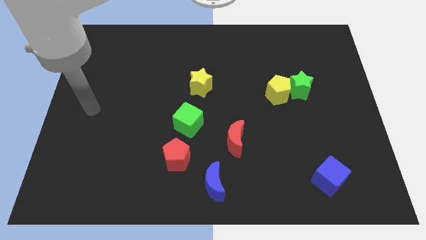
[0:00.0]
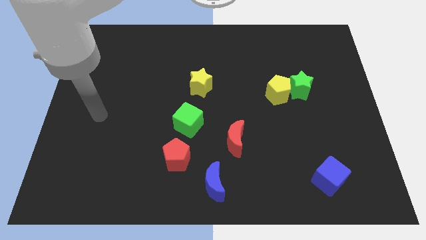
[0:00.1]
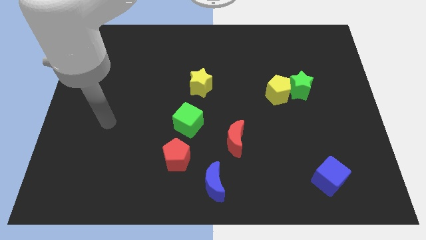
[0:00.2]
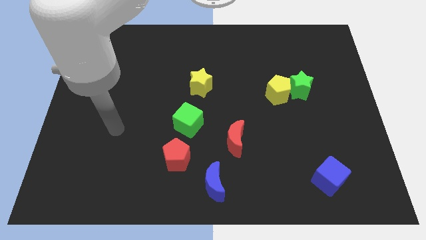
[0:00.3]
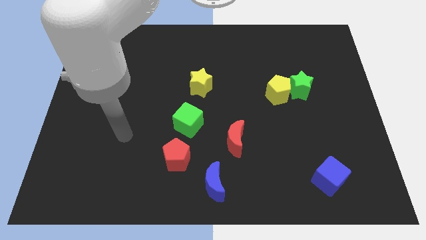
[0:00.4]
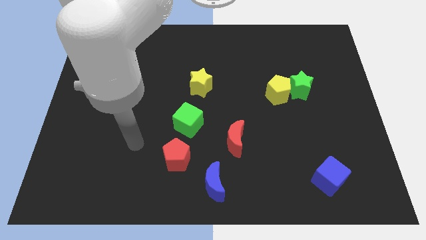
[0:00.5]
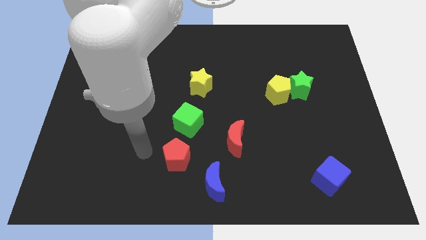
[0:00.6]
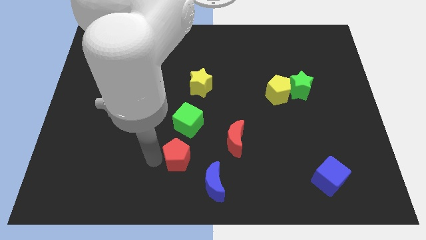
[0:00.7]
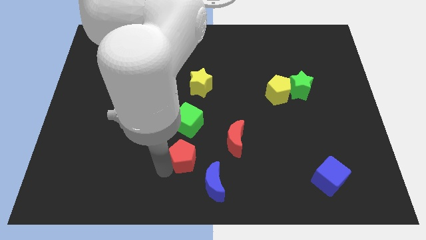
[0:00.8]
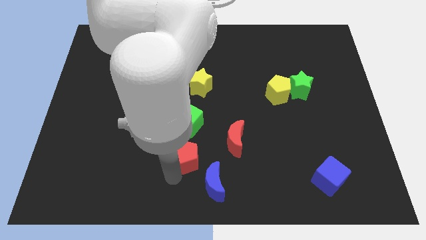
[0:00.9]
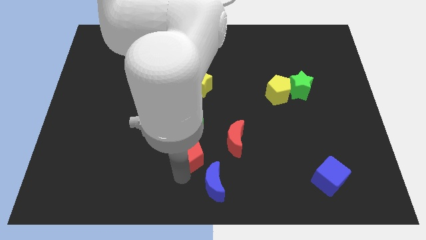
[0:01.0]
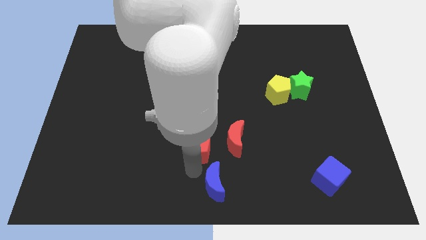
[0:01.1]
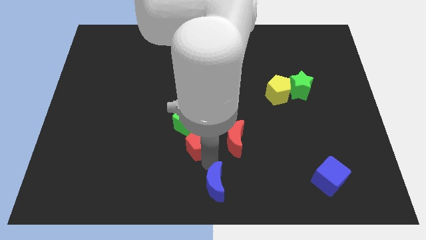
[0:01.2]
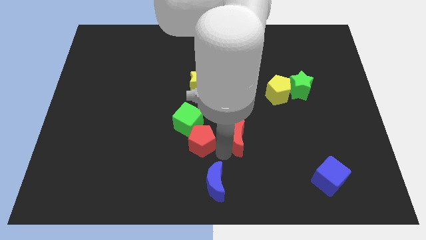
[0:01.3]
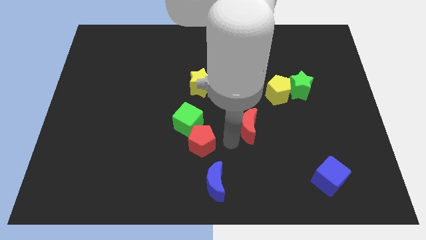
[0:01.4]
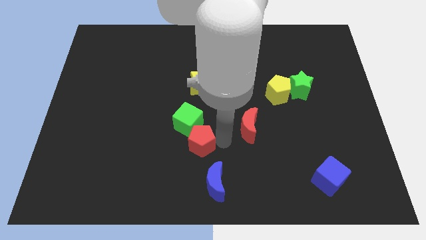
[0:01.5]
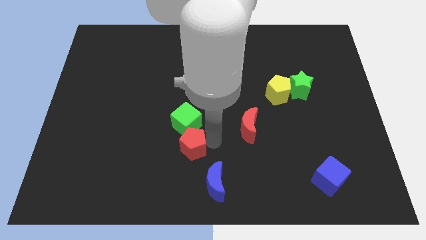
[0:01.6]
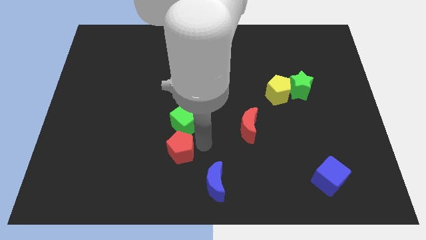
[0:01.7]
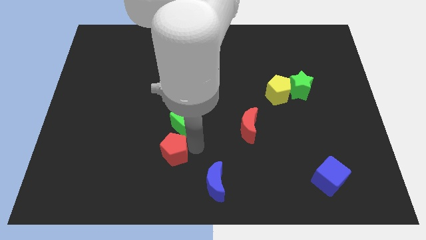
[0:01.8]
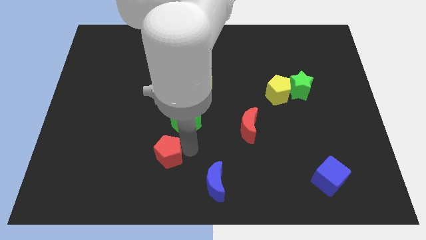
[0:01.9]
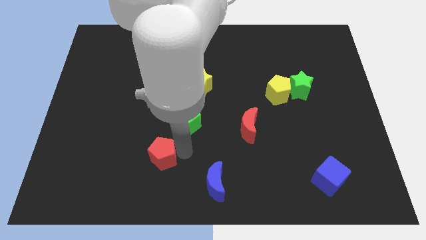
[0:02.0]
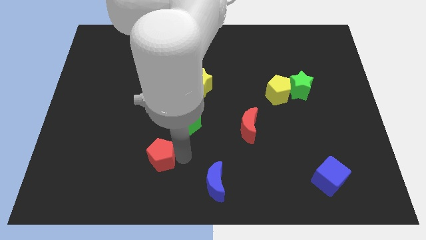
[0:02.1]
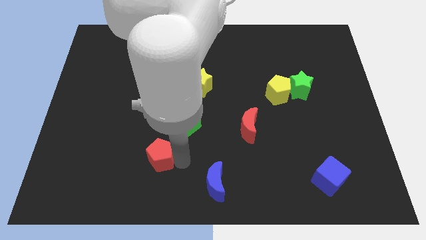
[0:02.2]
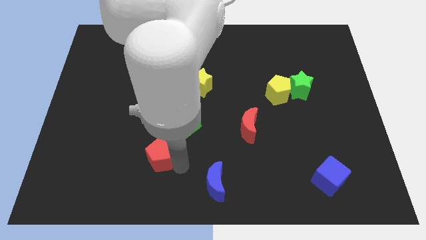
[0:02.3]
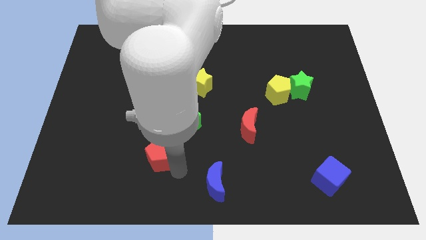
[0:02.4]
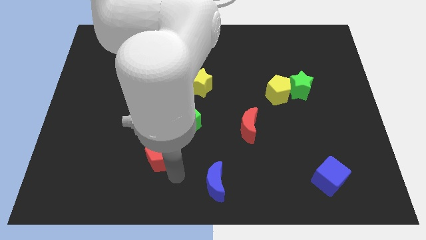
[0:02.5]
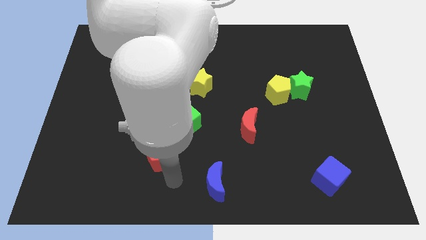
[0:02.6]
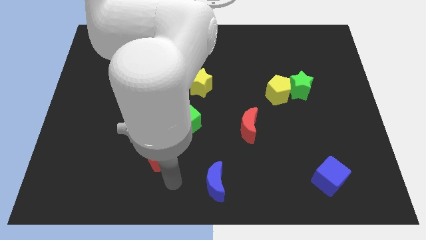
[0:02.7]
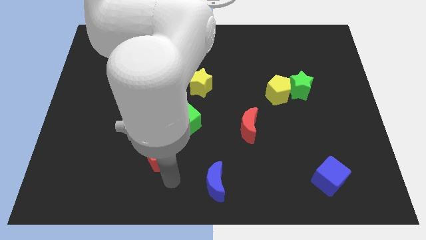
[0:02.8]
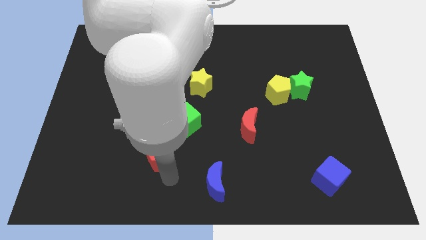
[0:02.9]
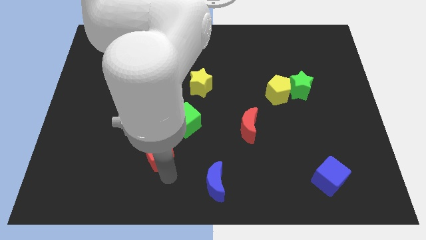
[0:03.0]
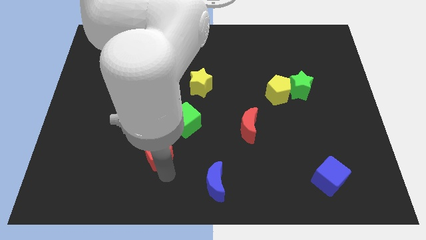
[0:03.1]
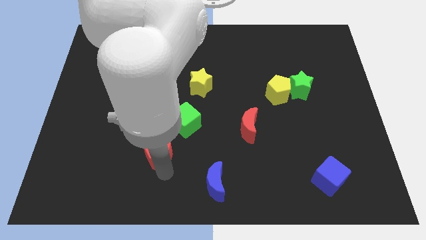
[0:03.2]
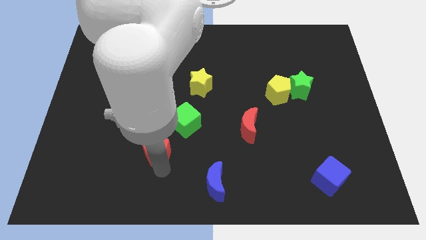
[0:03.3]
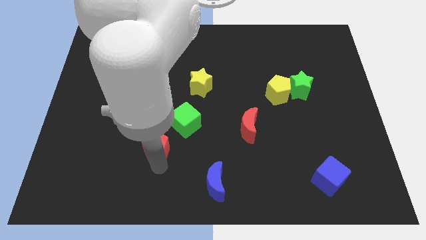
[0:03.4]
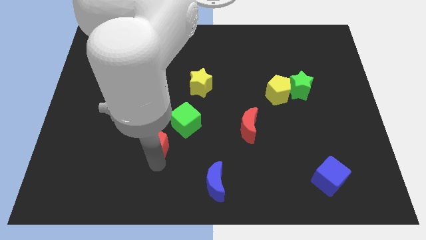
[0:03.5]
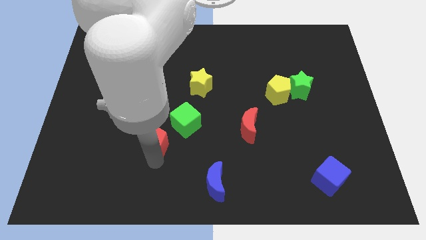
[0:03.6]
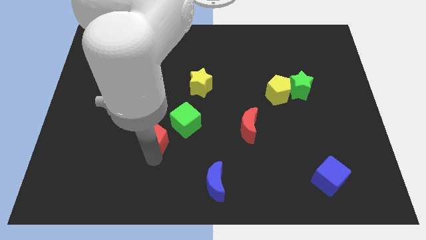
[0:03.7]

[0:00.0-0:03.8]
slide the red pentagon upwards and then left slightly

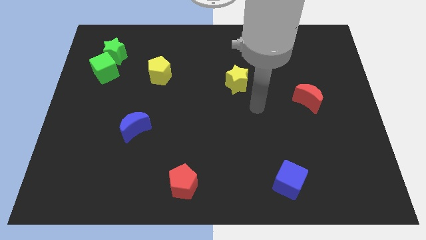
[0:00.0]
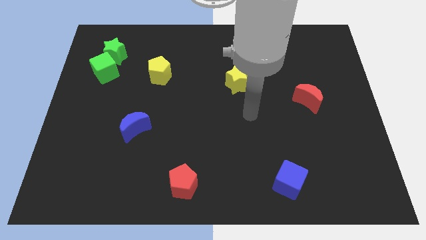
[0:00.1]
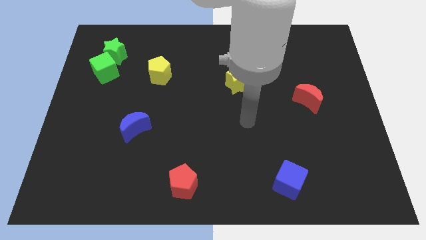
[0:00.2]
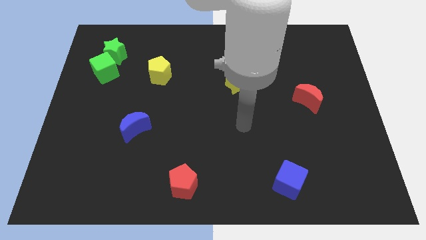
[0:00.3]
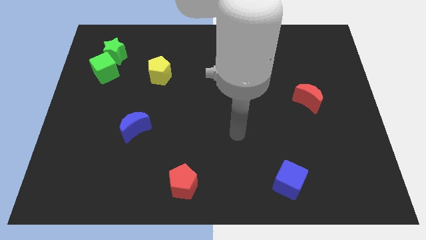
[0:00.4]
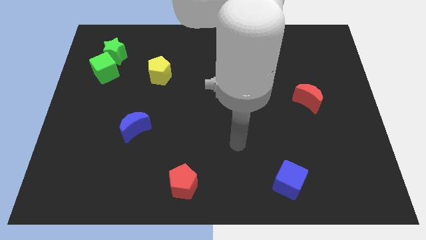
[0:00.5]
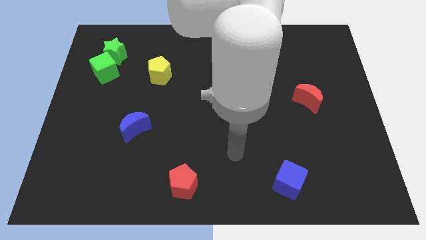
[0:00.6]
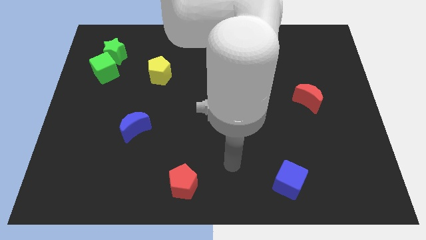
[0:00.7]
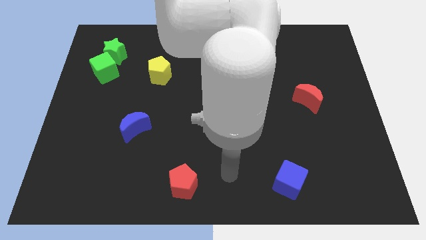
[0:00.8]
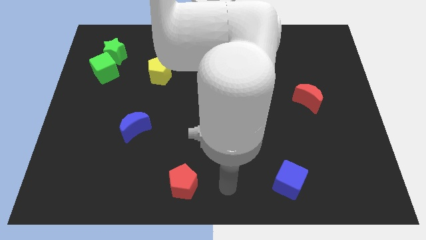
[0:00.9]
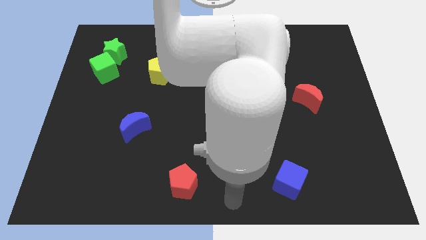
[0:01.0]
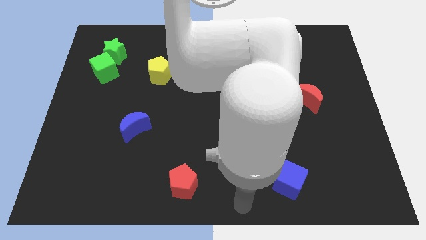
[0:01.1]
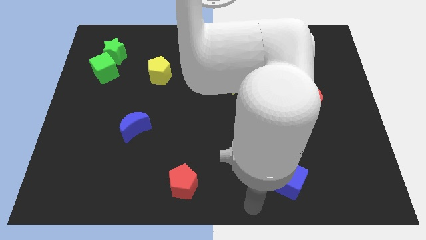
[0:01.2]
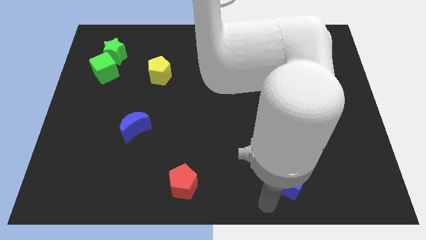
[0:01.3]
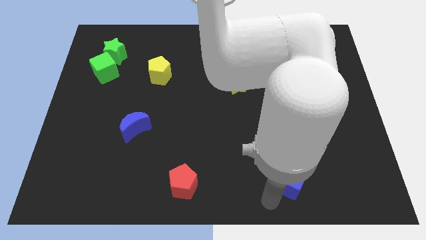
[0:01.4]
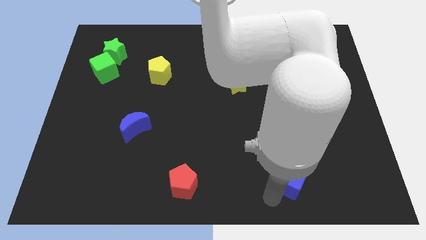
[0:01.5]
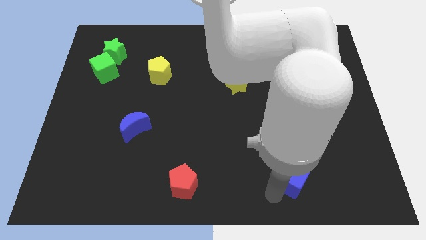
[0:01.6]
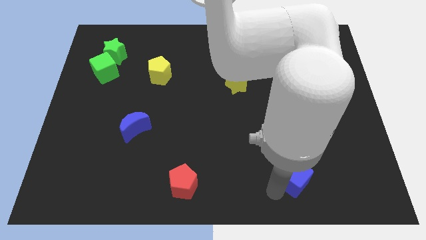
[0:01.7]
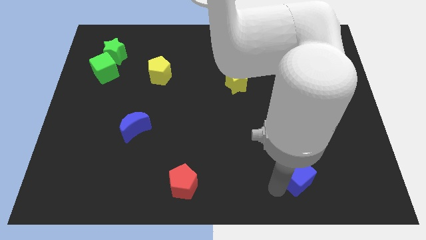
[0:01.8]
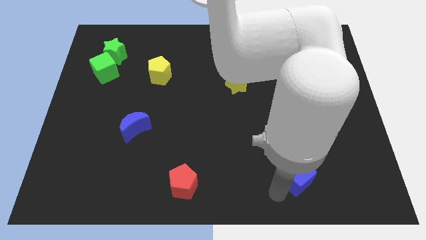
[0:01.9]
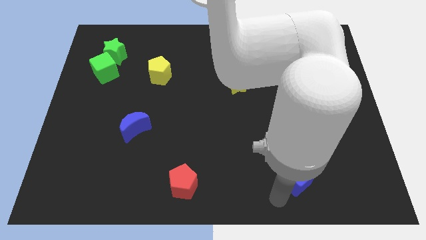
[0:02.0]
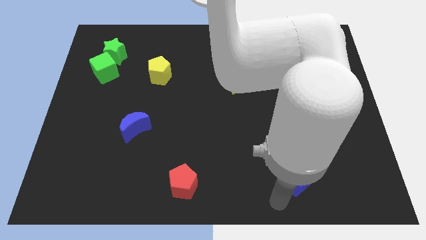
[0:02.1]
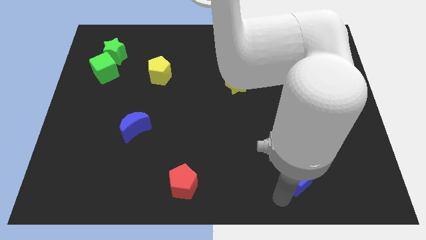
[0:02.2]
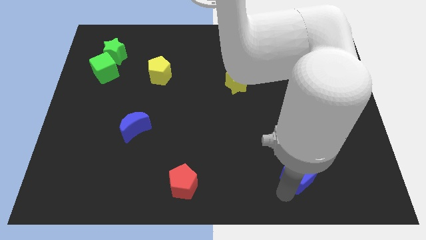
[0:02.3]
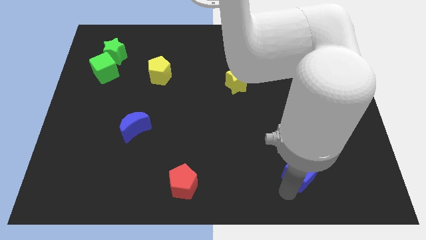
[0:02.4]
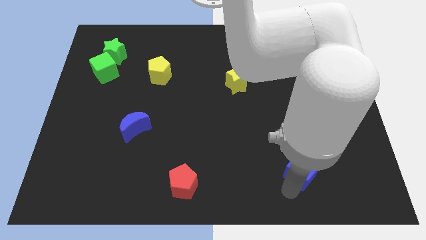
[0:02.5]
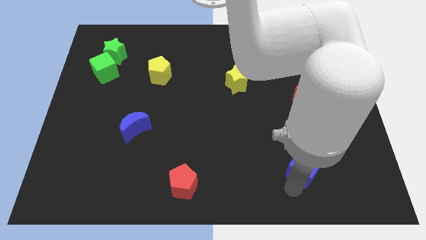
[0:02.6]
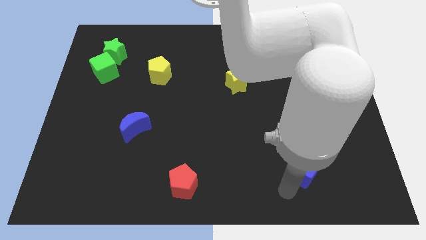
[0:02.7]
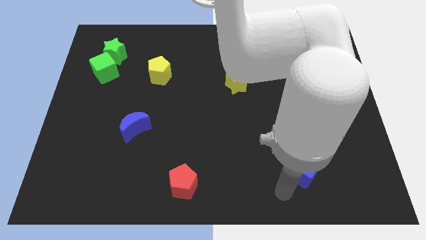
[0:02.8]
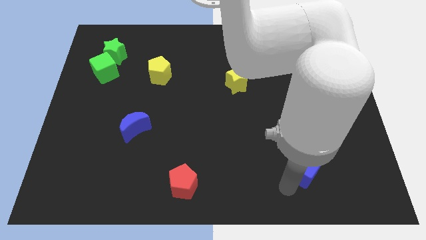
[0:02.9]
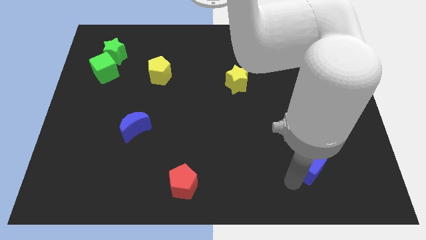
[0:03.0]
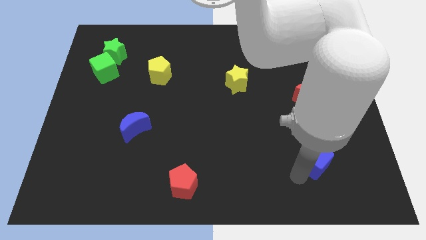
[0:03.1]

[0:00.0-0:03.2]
slightly slide the blue cube diagonally upwards and right

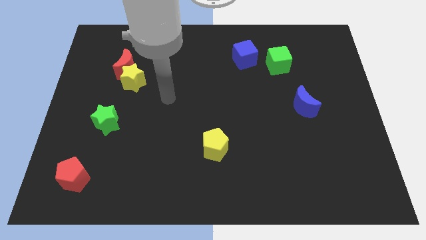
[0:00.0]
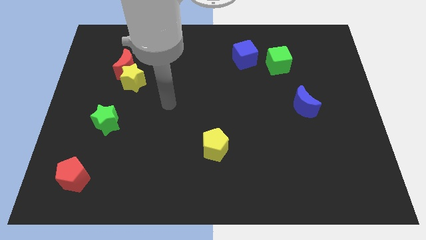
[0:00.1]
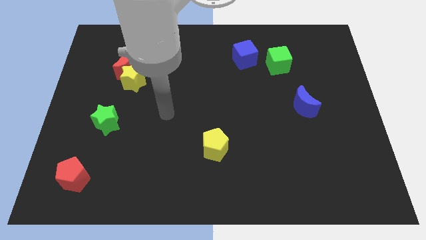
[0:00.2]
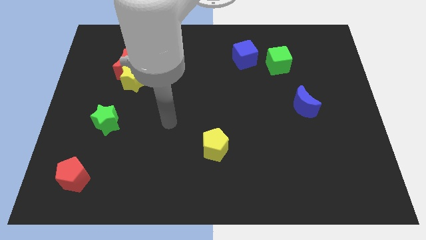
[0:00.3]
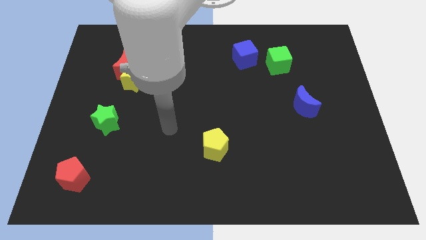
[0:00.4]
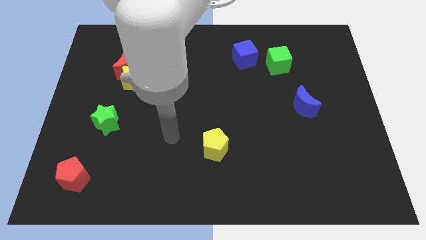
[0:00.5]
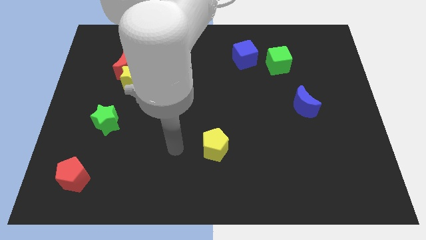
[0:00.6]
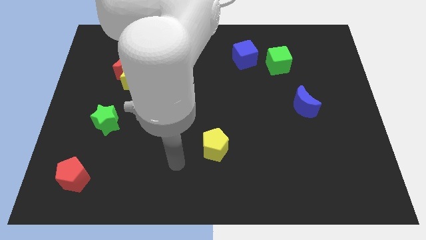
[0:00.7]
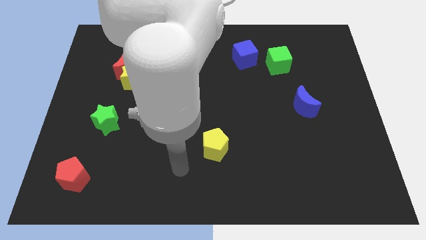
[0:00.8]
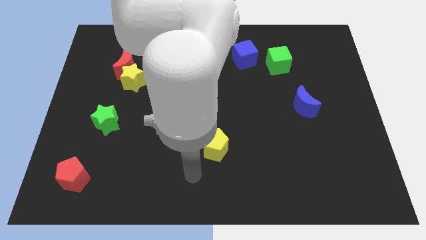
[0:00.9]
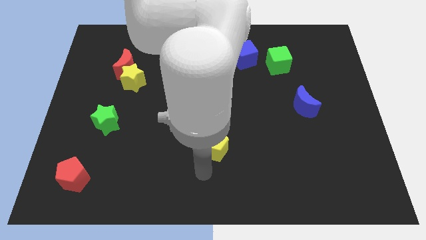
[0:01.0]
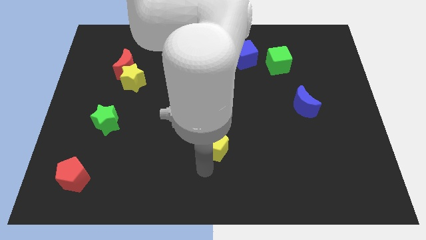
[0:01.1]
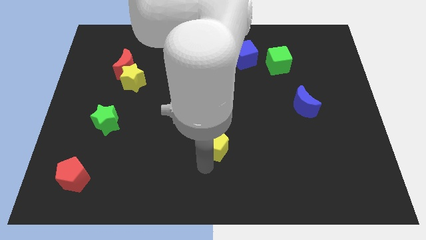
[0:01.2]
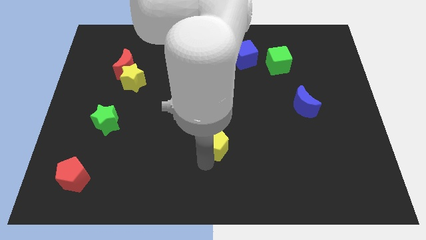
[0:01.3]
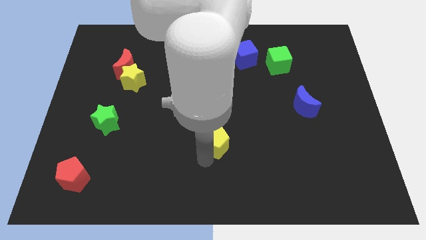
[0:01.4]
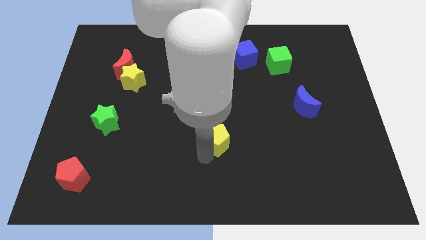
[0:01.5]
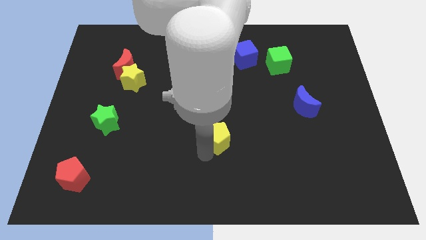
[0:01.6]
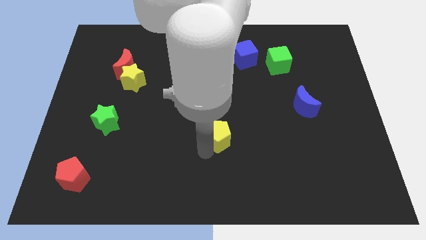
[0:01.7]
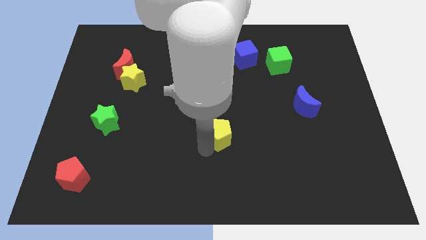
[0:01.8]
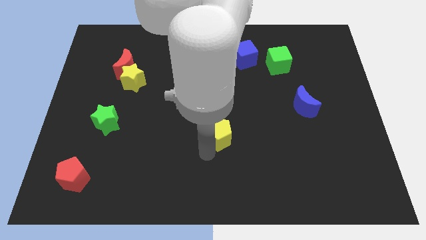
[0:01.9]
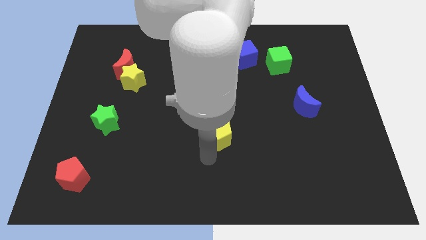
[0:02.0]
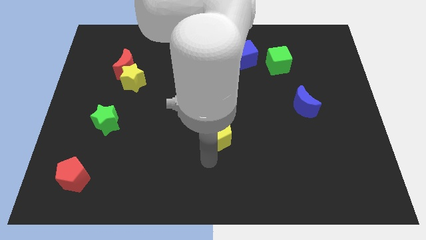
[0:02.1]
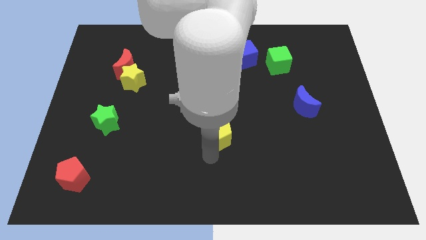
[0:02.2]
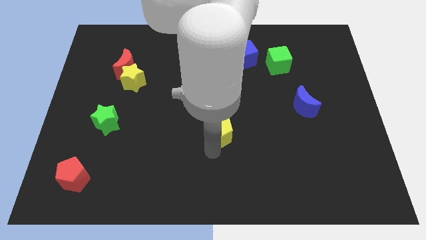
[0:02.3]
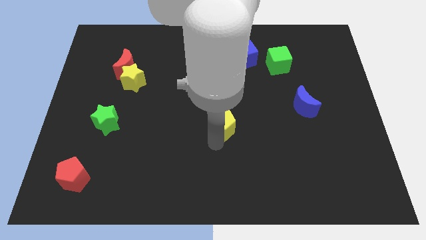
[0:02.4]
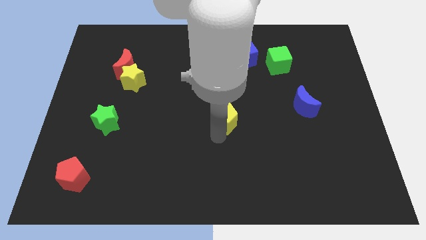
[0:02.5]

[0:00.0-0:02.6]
slide the yellow pentagon somewhat up
